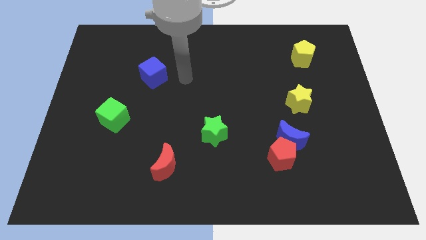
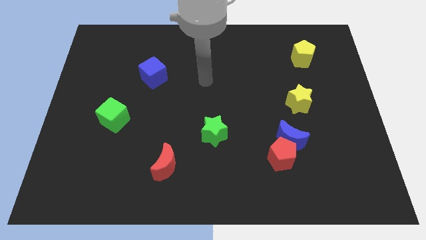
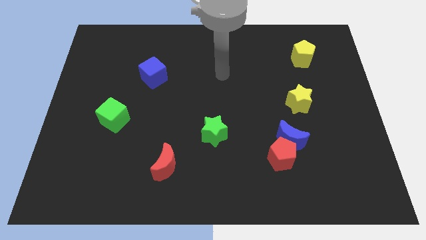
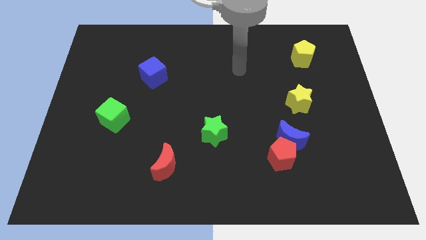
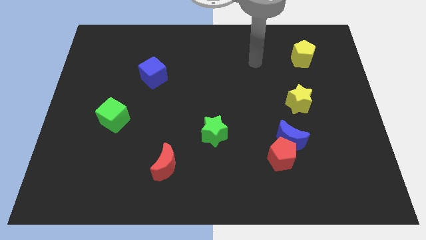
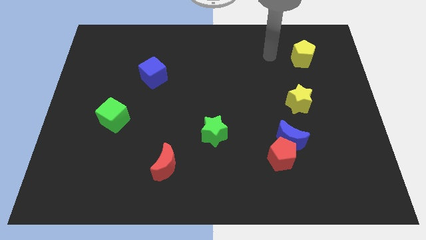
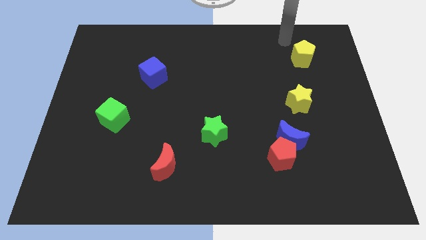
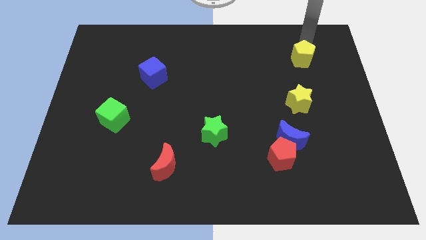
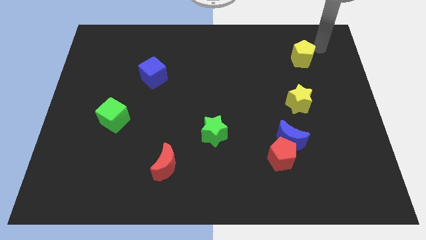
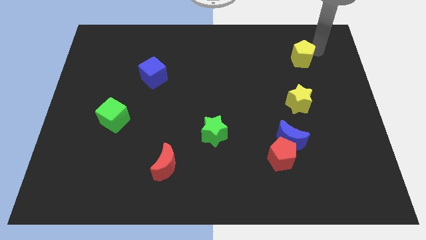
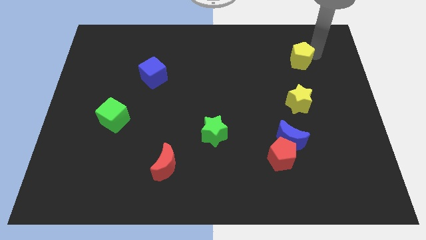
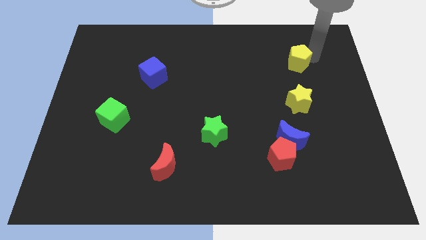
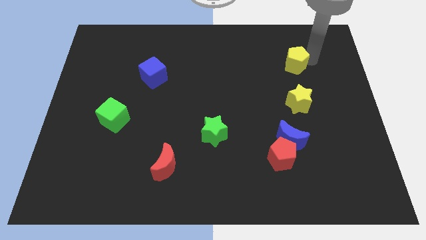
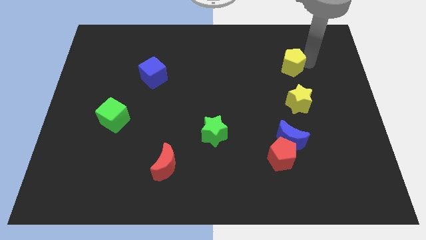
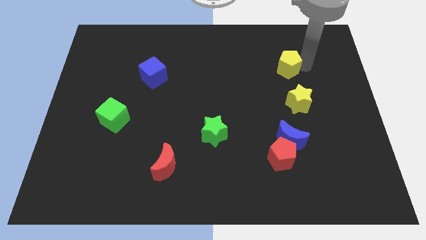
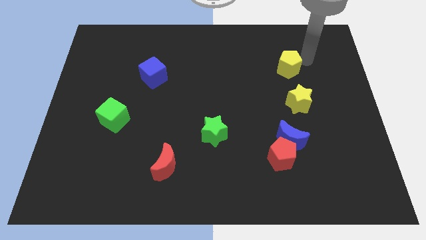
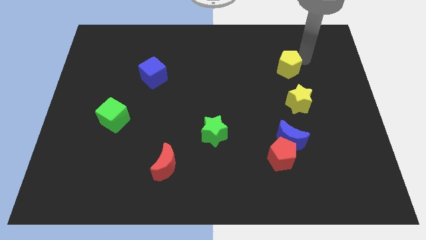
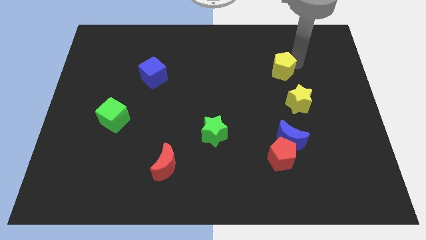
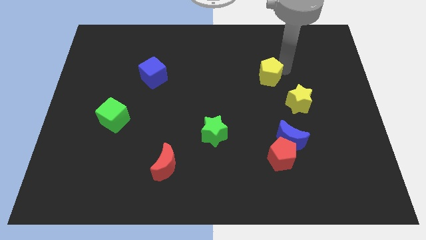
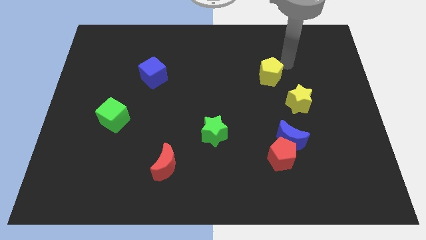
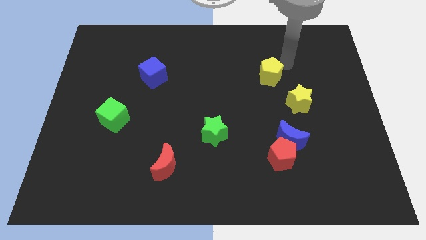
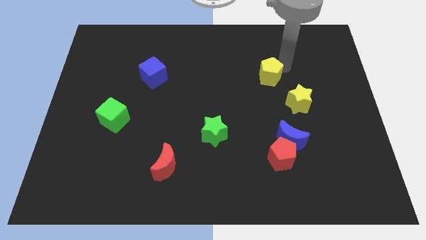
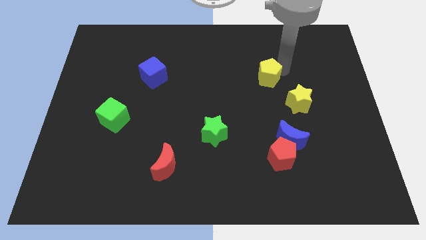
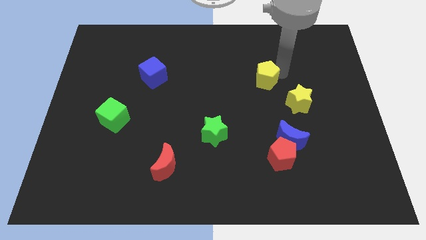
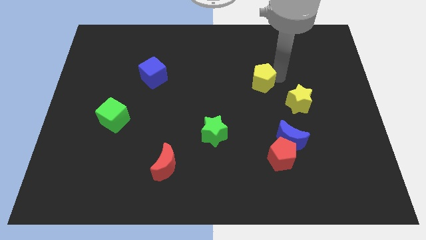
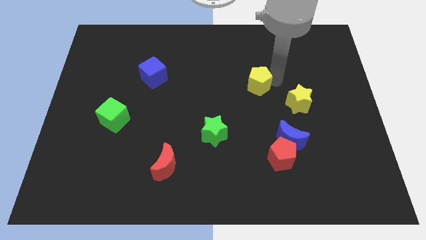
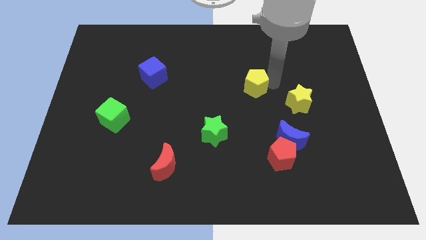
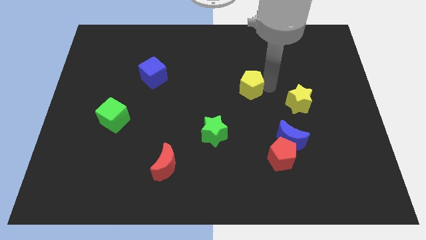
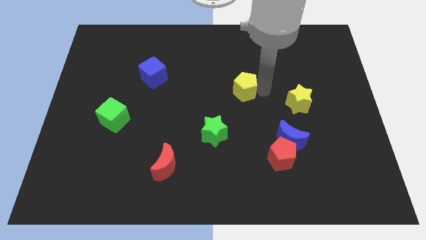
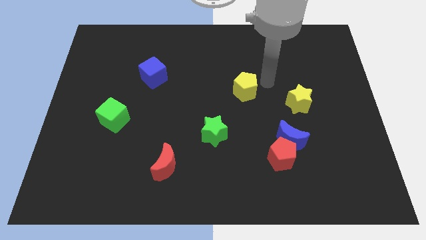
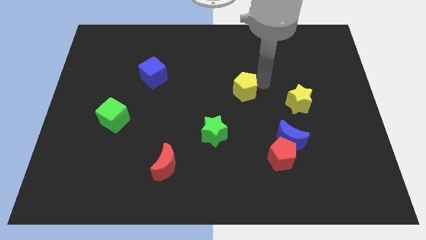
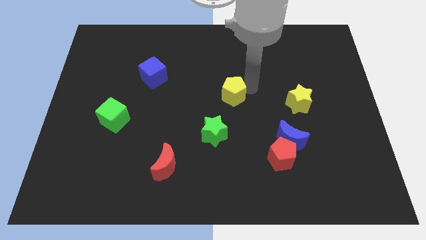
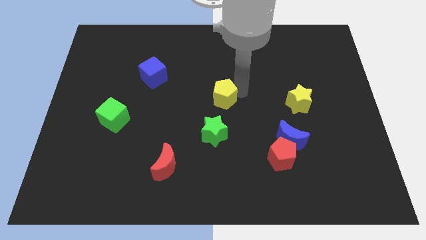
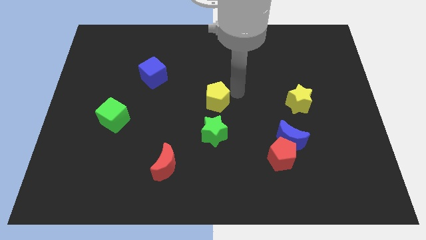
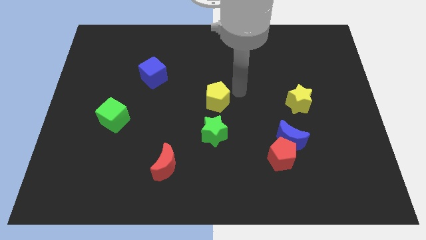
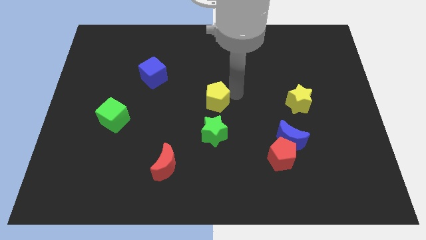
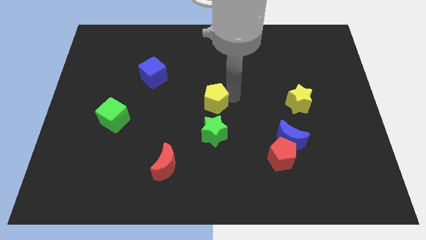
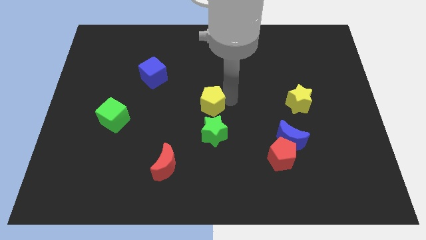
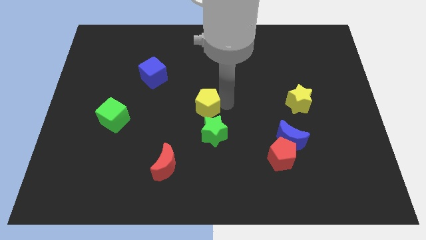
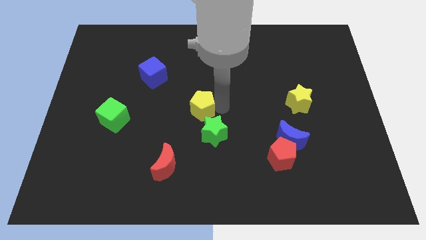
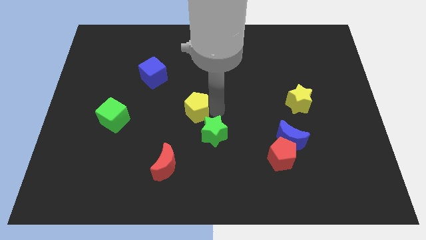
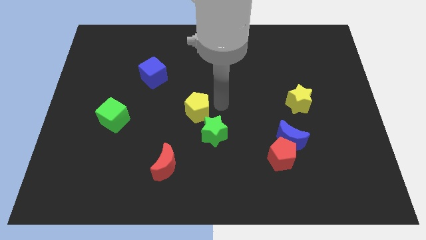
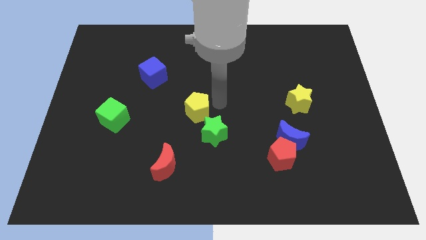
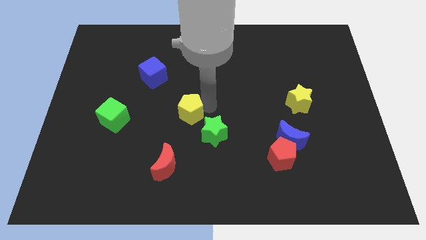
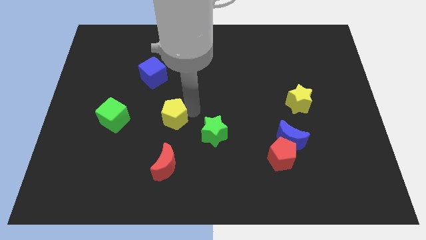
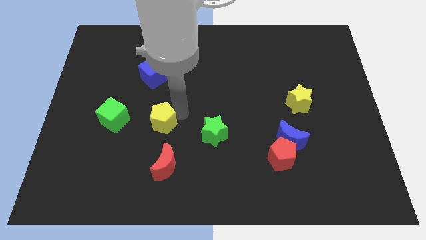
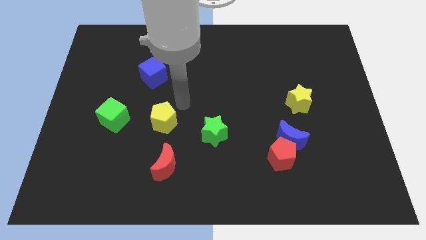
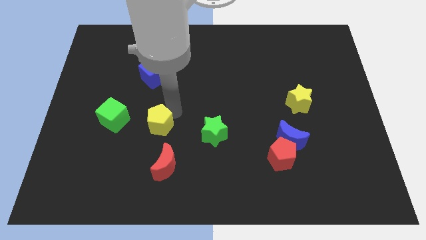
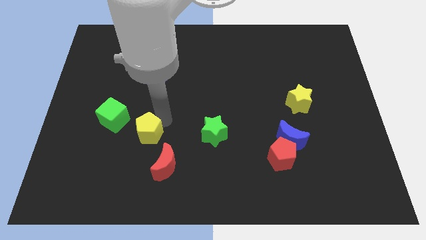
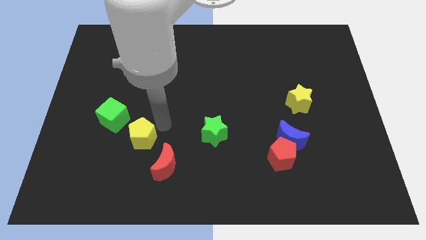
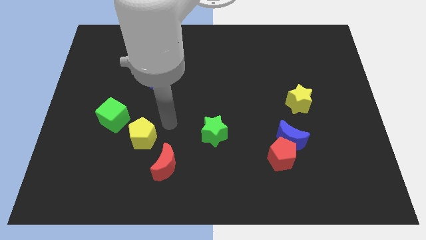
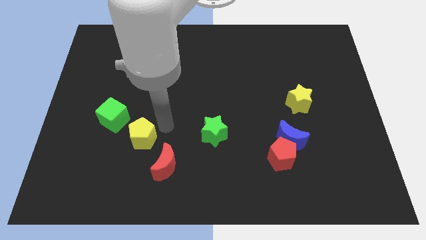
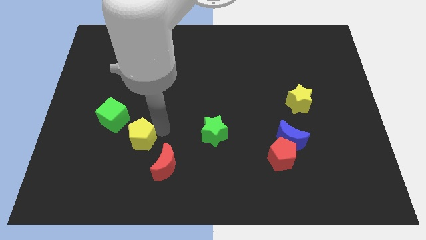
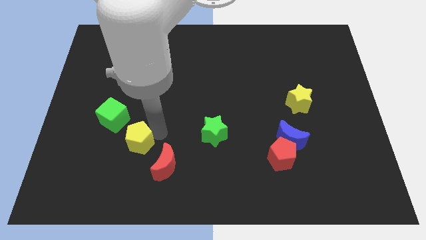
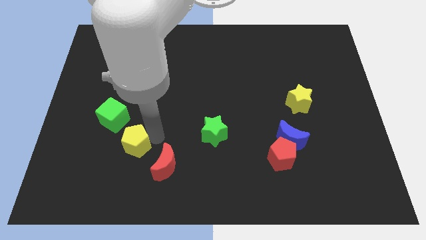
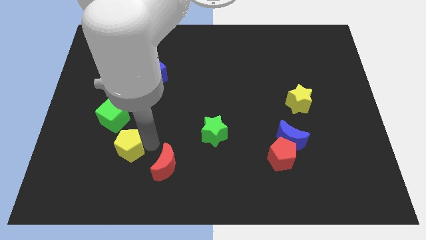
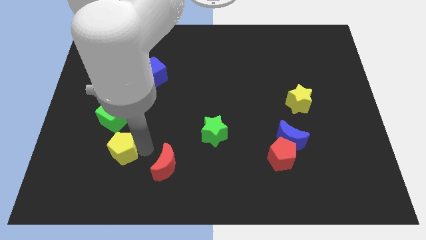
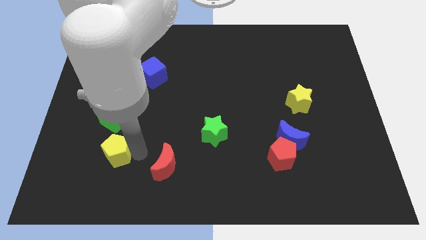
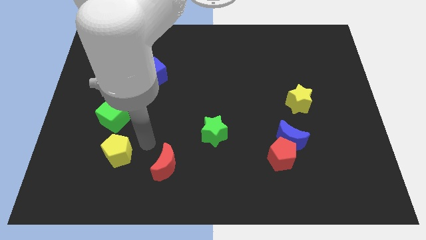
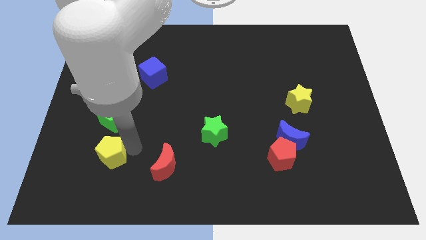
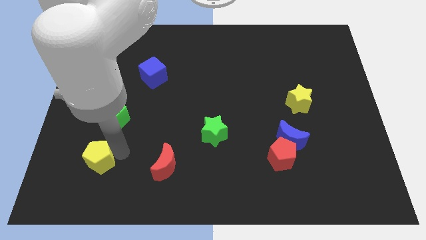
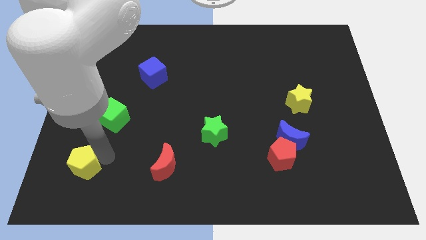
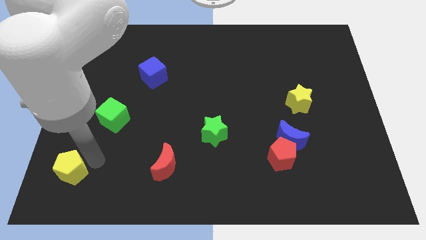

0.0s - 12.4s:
put the yellow pentagon to the lower left corner
